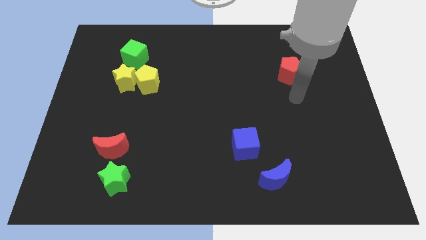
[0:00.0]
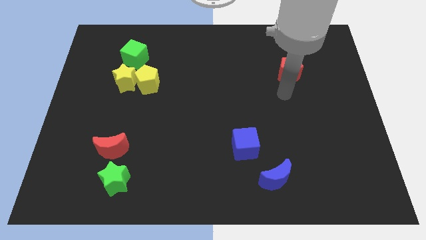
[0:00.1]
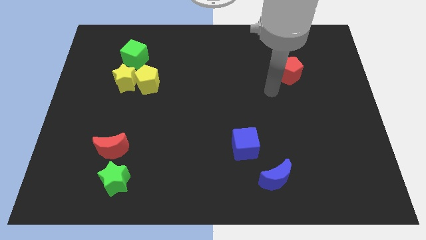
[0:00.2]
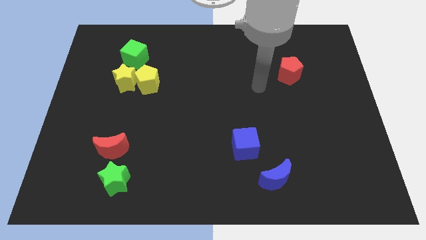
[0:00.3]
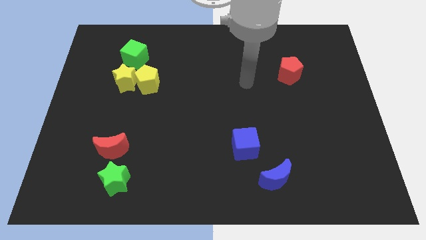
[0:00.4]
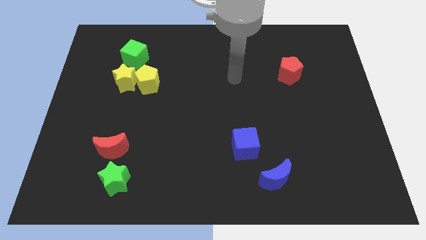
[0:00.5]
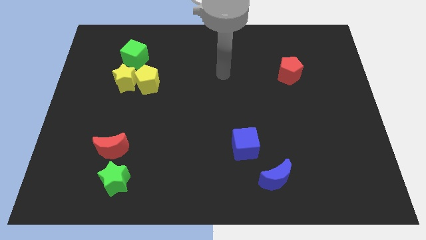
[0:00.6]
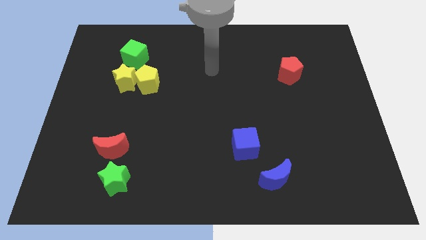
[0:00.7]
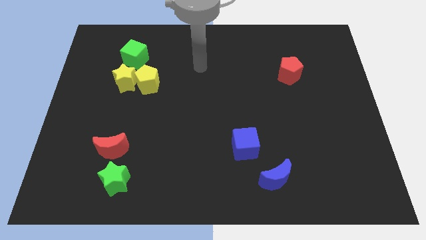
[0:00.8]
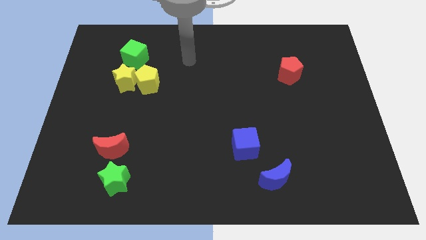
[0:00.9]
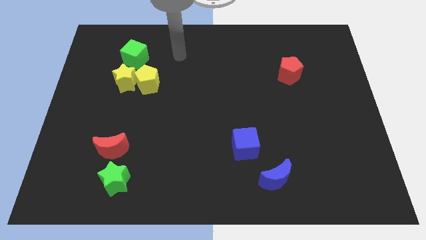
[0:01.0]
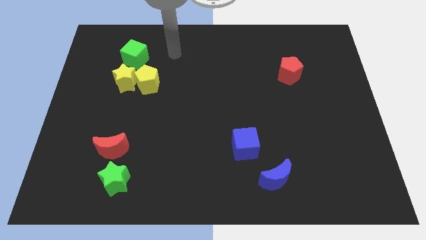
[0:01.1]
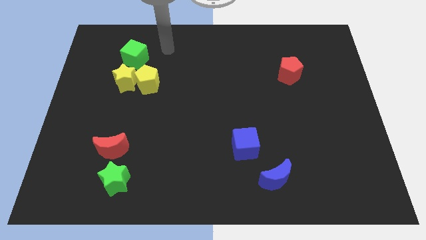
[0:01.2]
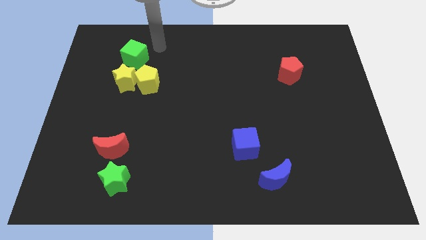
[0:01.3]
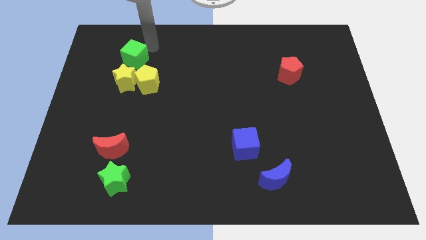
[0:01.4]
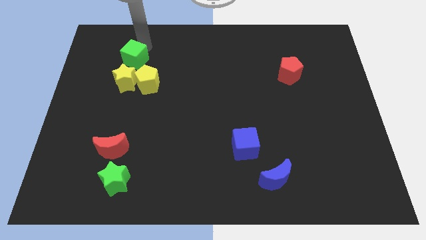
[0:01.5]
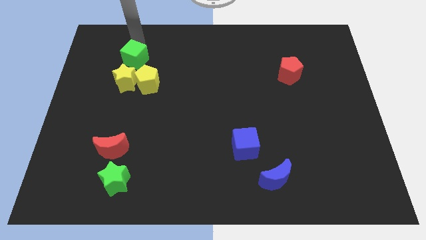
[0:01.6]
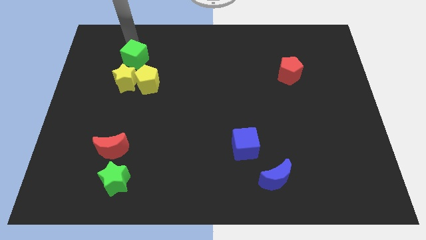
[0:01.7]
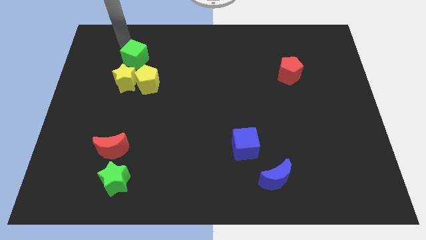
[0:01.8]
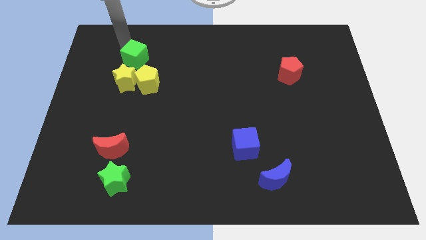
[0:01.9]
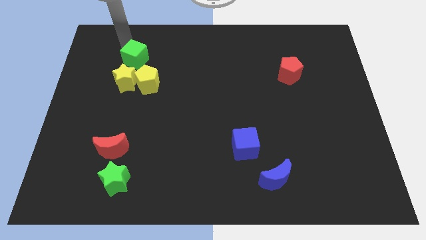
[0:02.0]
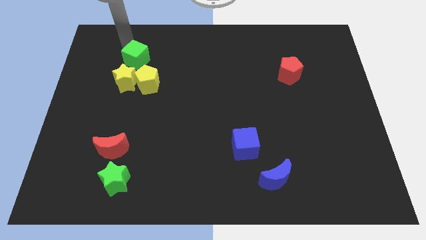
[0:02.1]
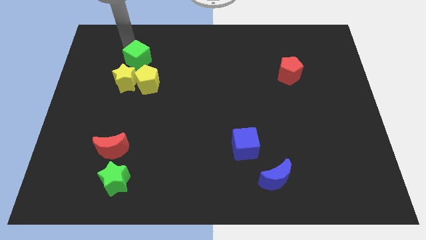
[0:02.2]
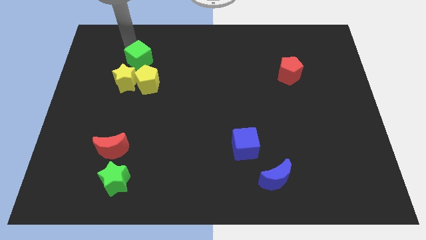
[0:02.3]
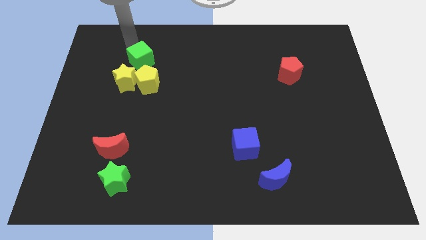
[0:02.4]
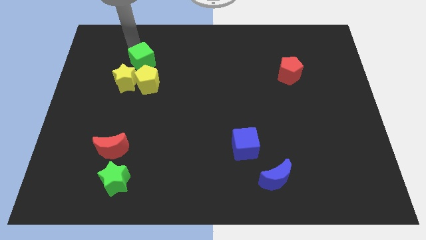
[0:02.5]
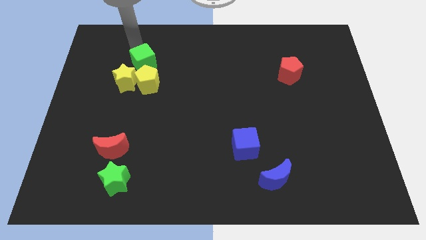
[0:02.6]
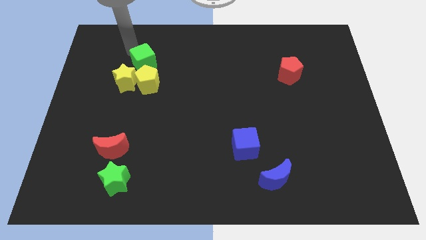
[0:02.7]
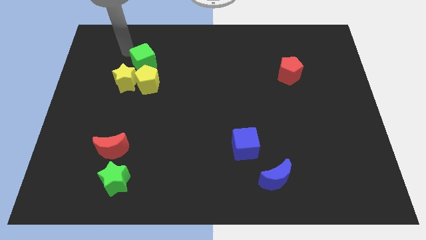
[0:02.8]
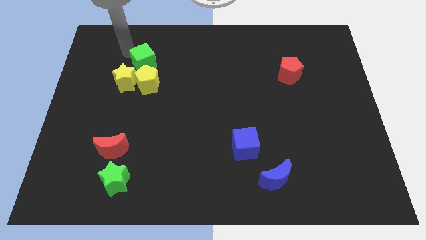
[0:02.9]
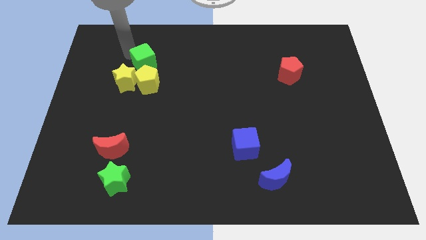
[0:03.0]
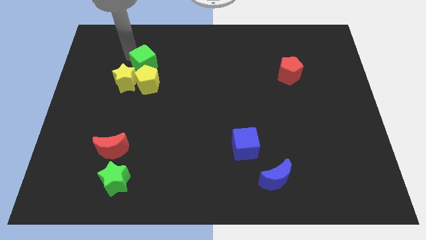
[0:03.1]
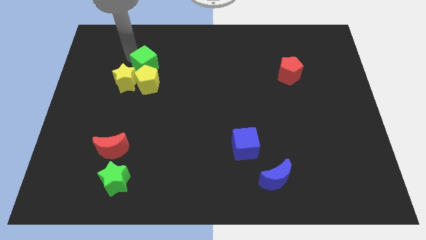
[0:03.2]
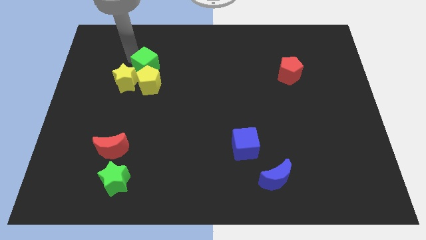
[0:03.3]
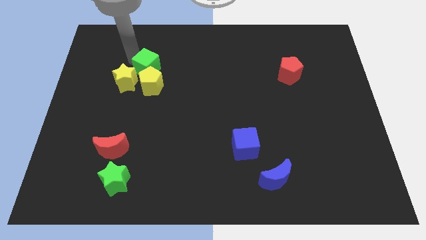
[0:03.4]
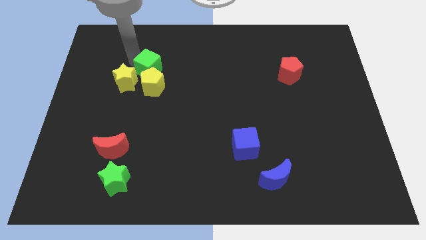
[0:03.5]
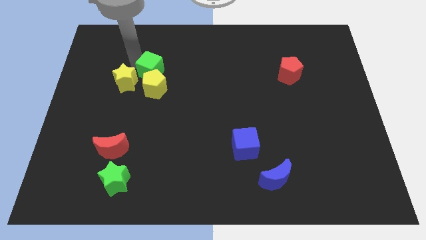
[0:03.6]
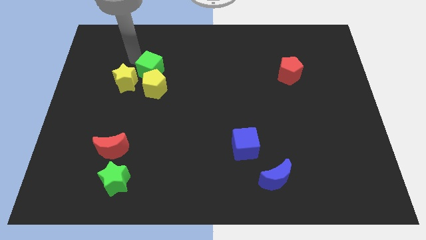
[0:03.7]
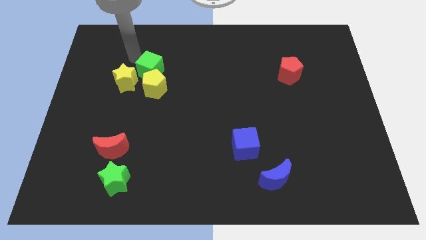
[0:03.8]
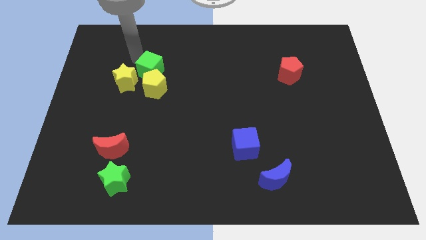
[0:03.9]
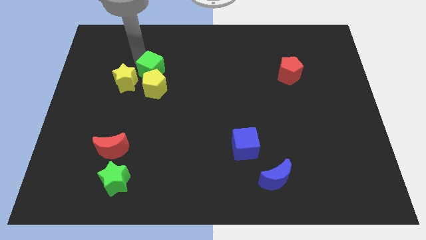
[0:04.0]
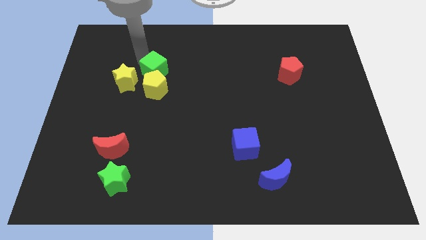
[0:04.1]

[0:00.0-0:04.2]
push the green cube downwards and right diagonally a little

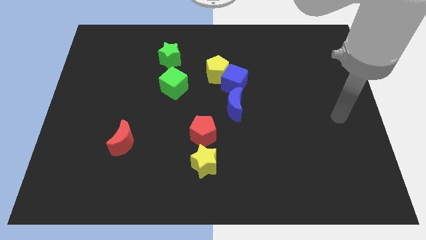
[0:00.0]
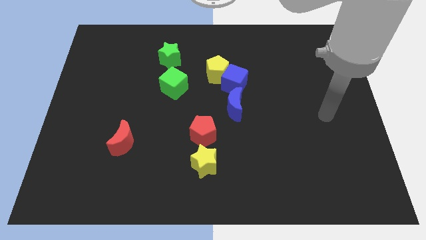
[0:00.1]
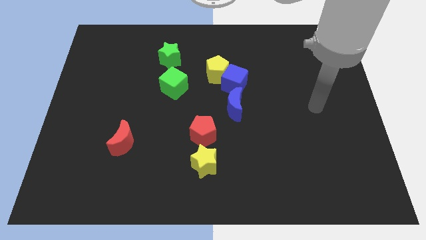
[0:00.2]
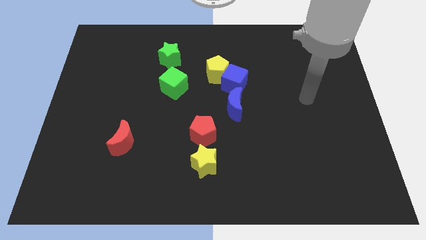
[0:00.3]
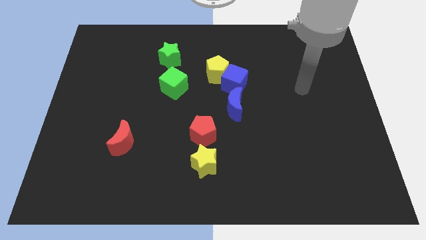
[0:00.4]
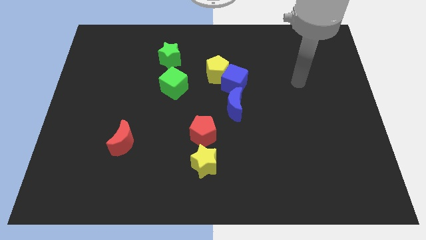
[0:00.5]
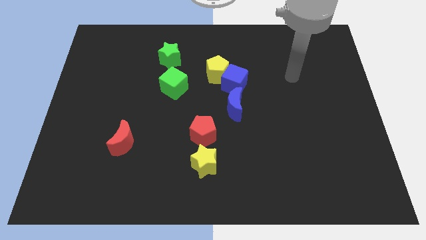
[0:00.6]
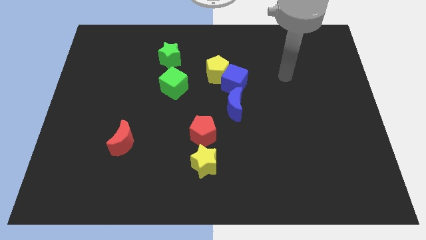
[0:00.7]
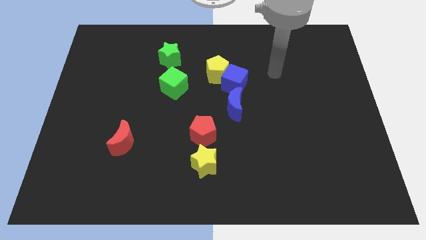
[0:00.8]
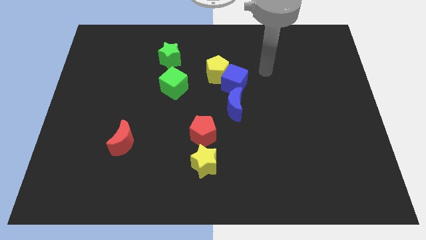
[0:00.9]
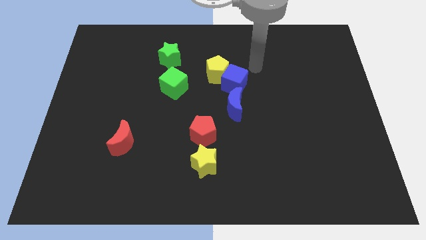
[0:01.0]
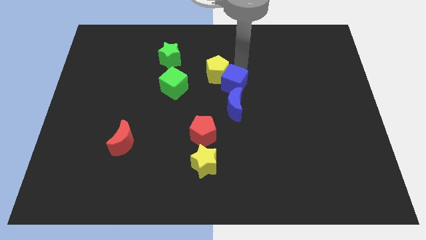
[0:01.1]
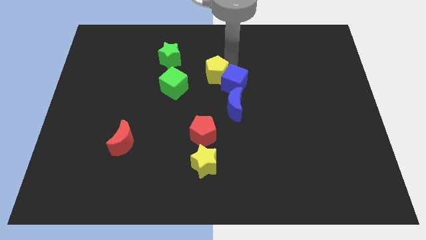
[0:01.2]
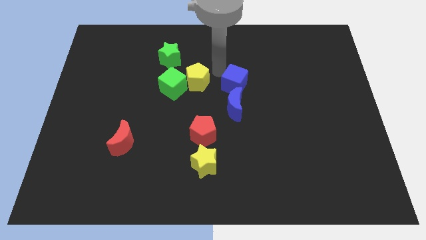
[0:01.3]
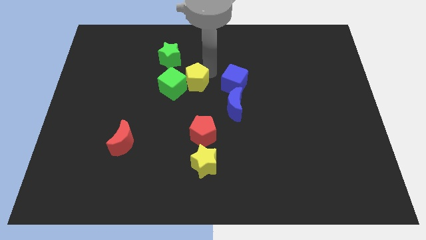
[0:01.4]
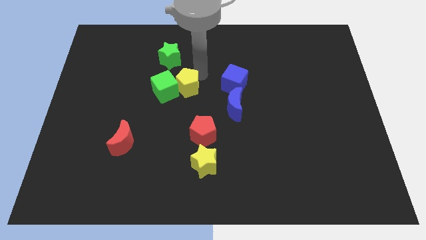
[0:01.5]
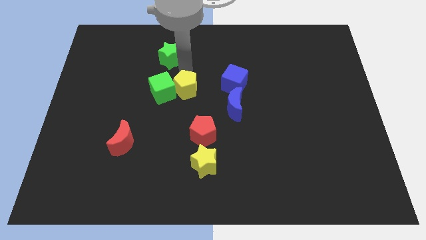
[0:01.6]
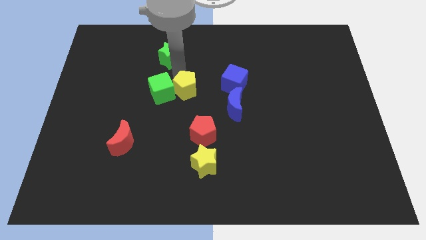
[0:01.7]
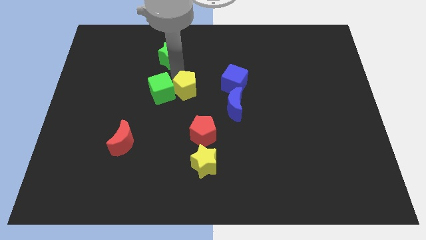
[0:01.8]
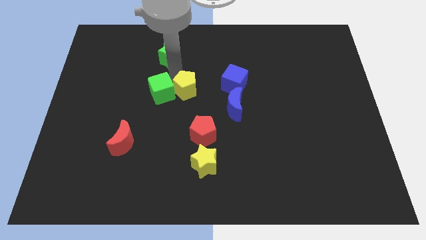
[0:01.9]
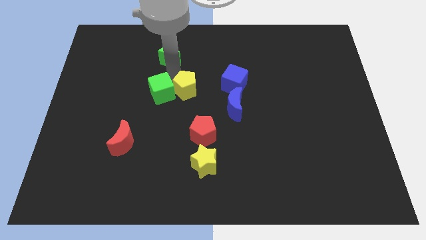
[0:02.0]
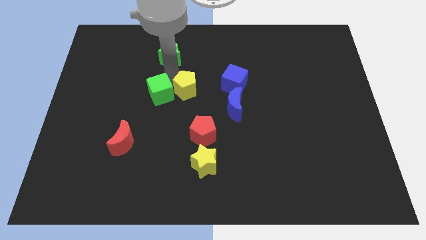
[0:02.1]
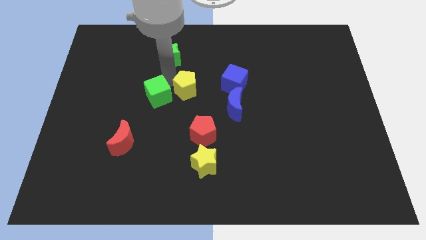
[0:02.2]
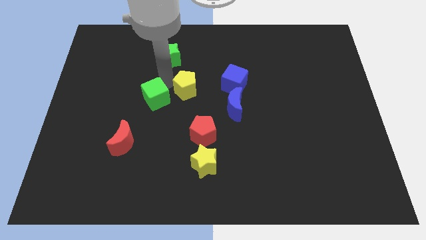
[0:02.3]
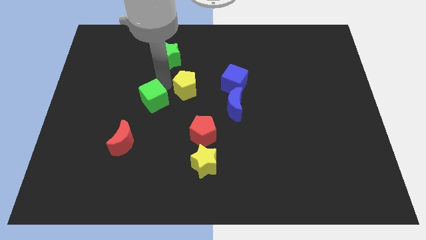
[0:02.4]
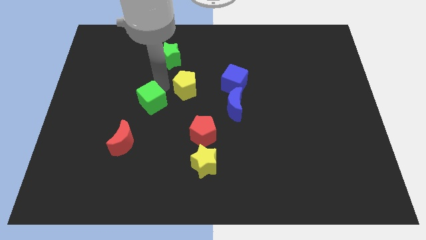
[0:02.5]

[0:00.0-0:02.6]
push the green cube a bit downwards and left

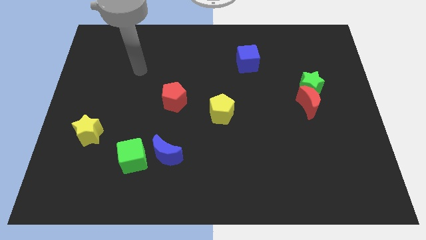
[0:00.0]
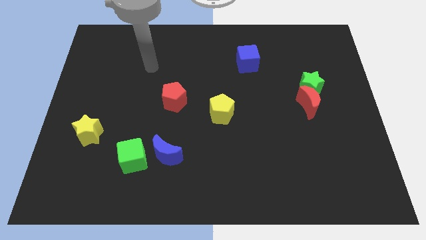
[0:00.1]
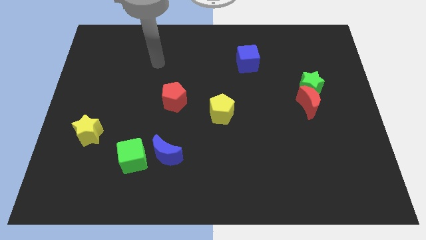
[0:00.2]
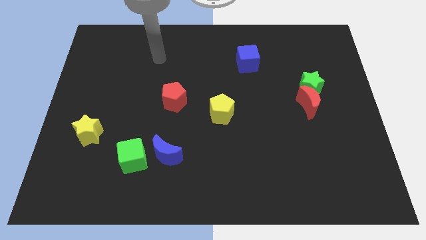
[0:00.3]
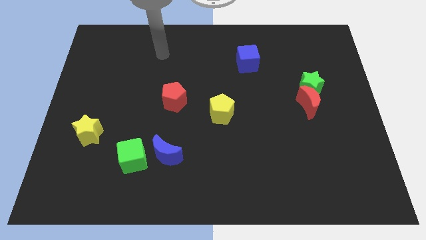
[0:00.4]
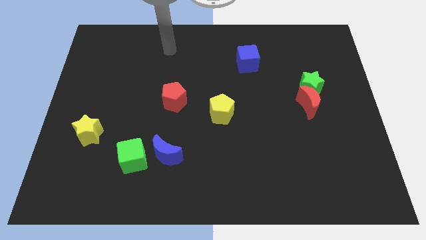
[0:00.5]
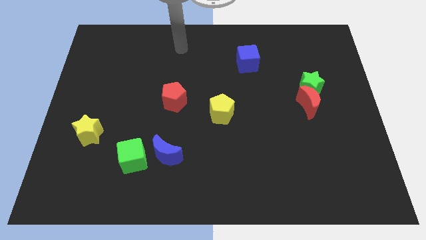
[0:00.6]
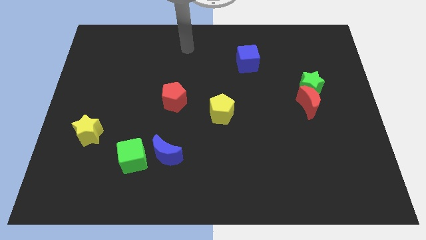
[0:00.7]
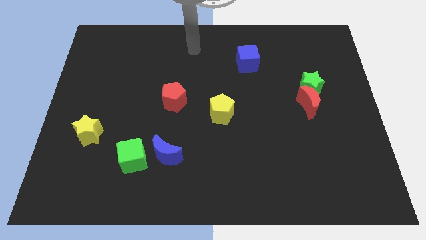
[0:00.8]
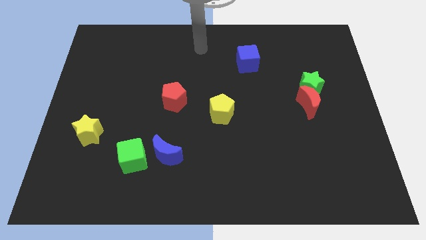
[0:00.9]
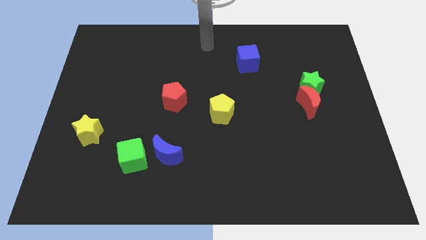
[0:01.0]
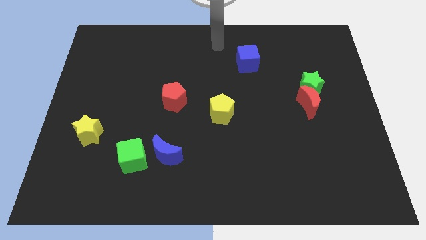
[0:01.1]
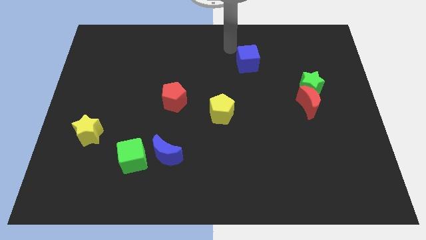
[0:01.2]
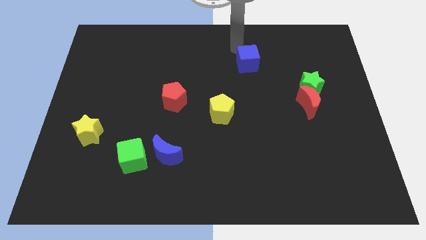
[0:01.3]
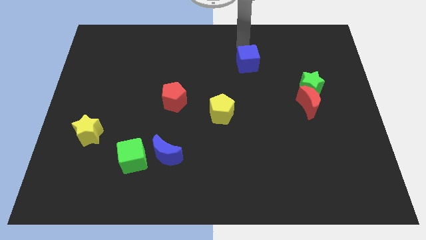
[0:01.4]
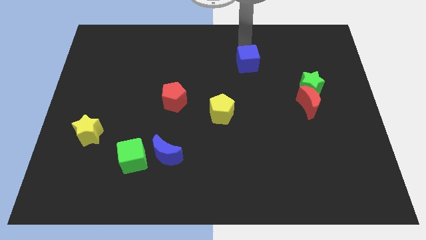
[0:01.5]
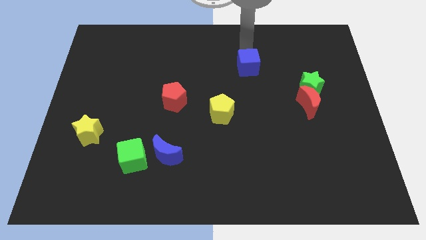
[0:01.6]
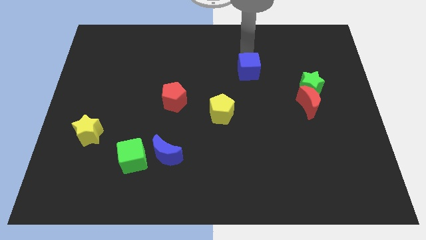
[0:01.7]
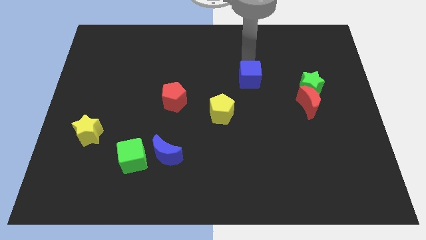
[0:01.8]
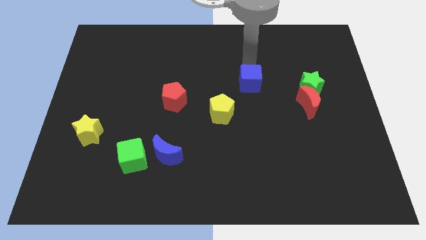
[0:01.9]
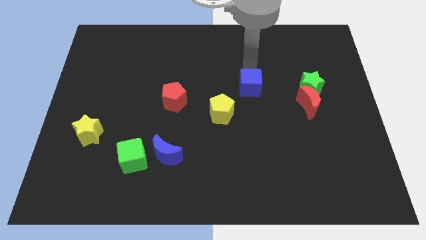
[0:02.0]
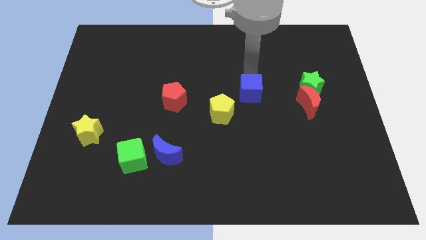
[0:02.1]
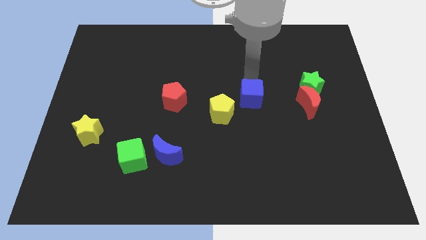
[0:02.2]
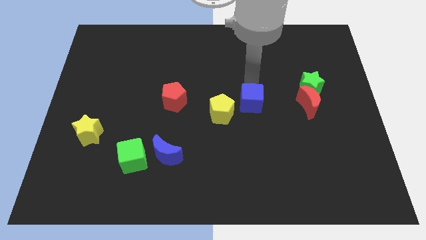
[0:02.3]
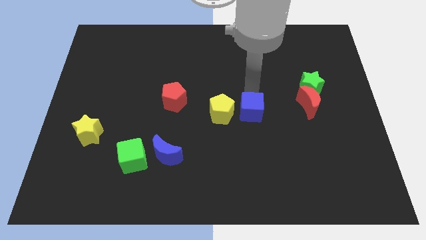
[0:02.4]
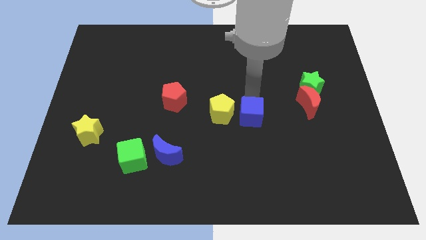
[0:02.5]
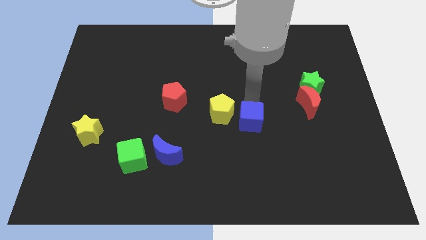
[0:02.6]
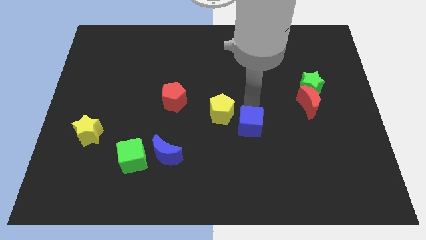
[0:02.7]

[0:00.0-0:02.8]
move the blue cube down
